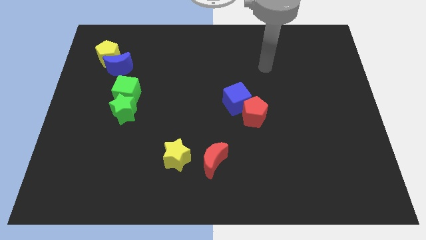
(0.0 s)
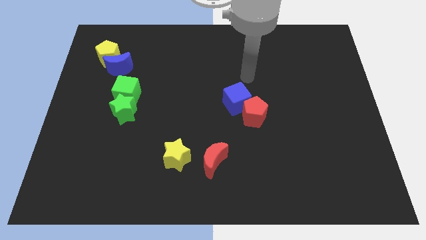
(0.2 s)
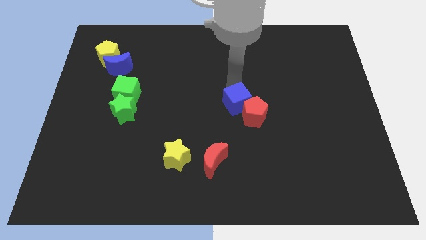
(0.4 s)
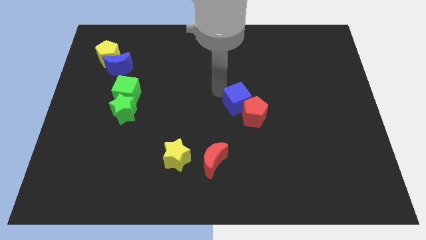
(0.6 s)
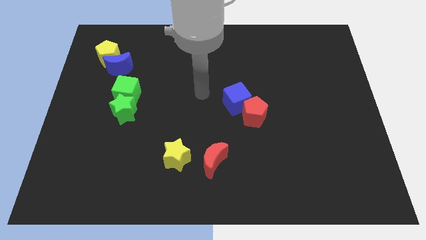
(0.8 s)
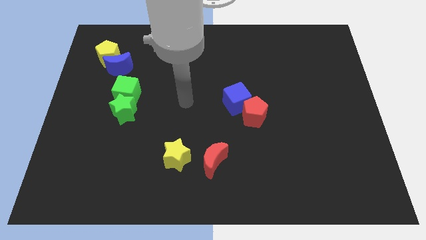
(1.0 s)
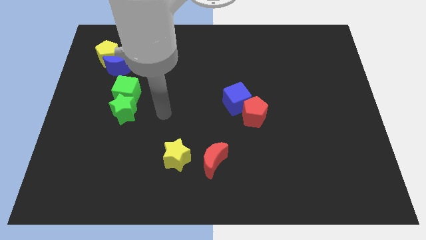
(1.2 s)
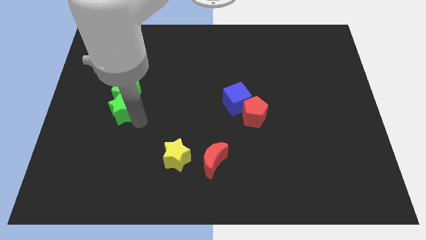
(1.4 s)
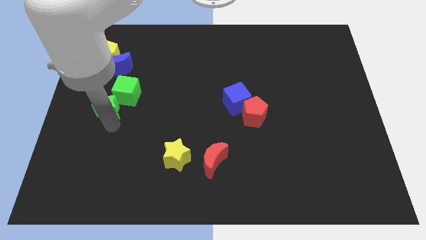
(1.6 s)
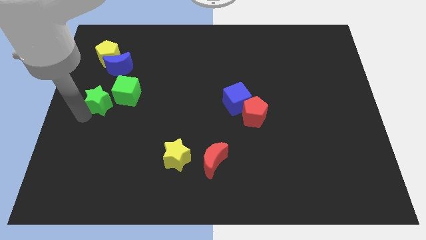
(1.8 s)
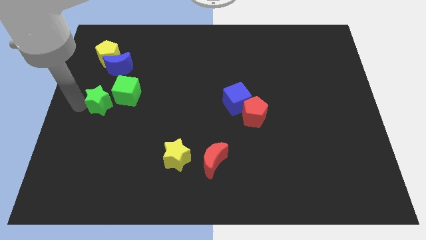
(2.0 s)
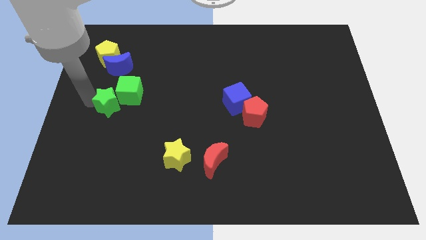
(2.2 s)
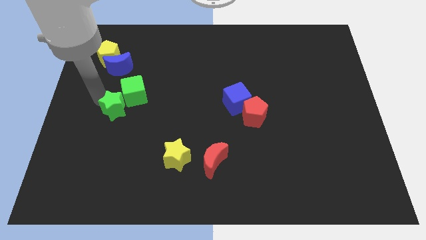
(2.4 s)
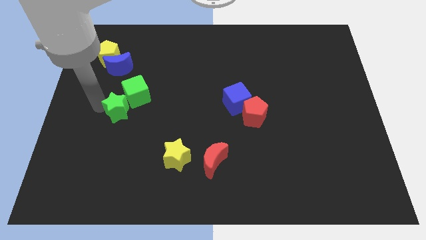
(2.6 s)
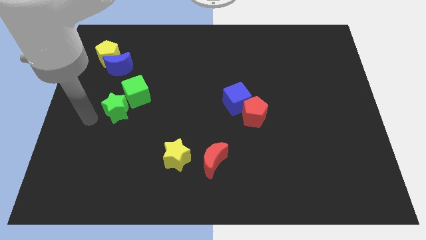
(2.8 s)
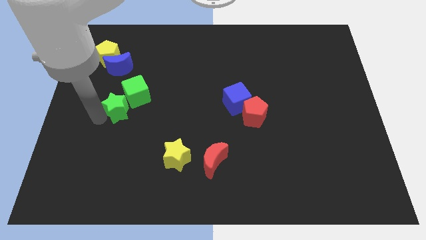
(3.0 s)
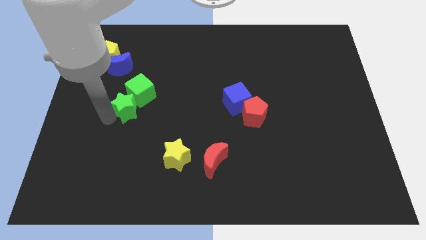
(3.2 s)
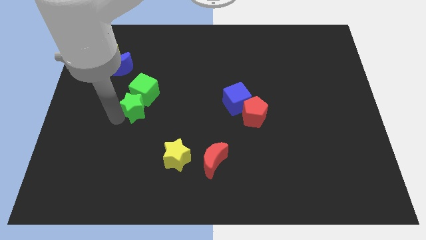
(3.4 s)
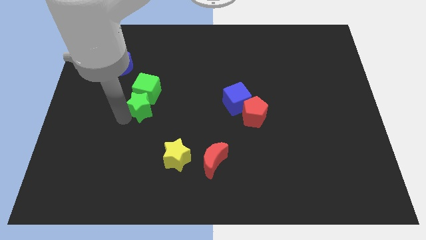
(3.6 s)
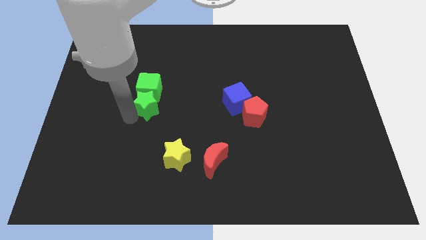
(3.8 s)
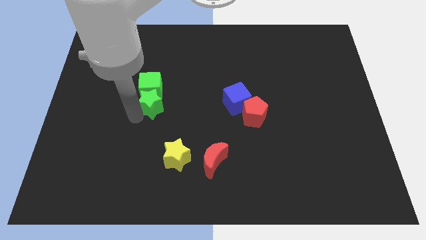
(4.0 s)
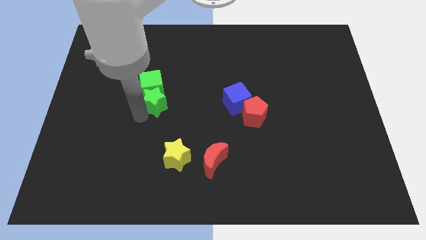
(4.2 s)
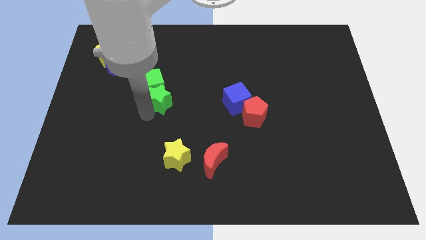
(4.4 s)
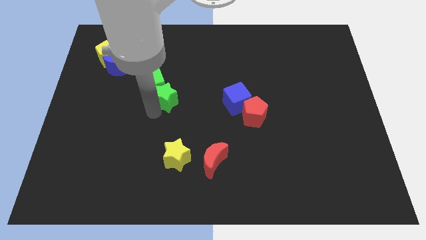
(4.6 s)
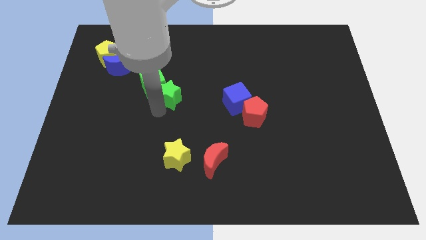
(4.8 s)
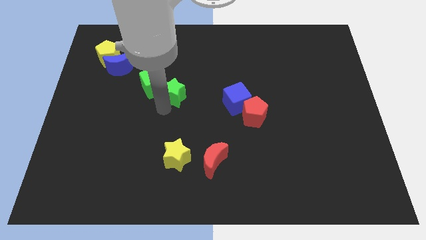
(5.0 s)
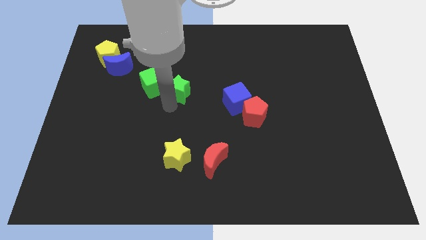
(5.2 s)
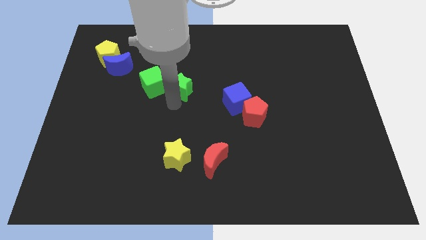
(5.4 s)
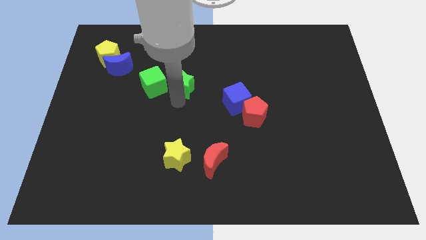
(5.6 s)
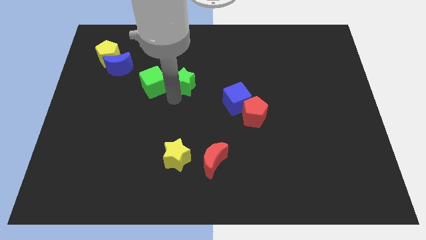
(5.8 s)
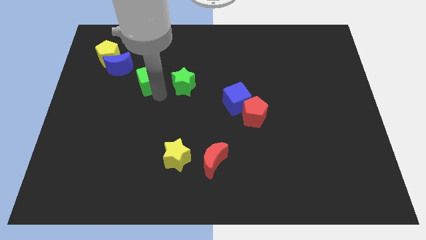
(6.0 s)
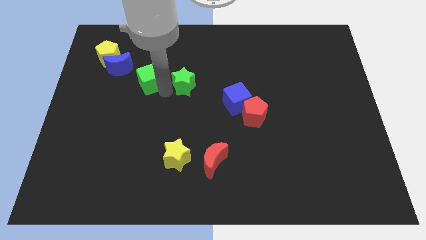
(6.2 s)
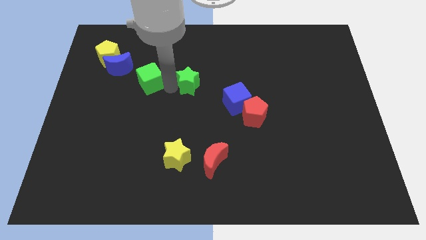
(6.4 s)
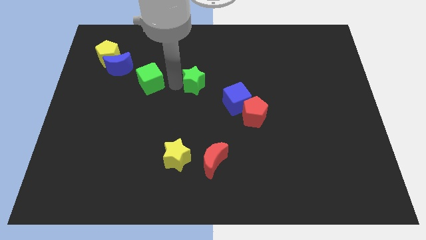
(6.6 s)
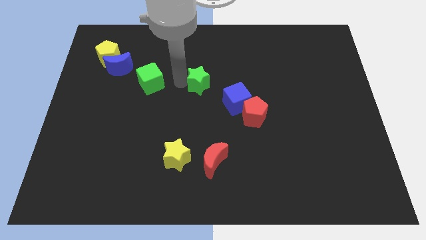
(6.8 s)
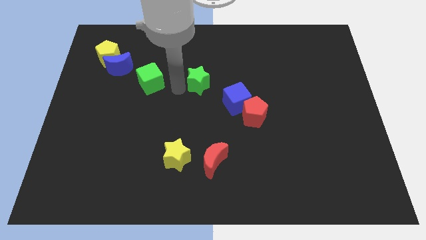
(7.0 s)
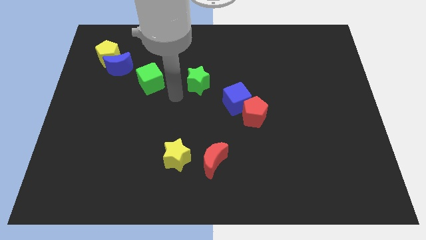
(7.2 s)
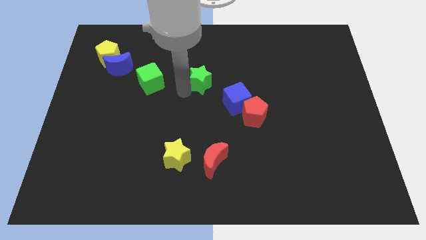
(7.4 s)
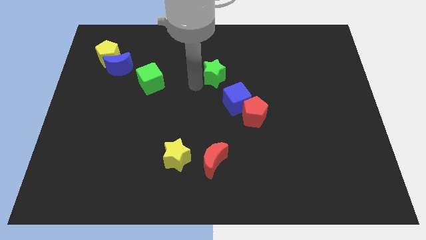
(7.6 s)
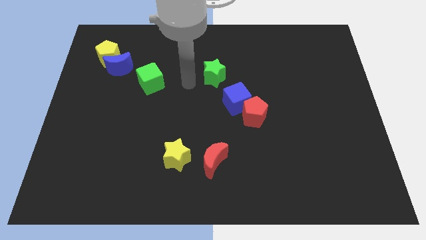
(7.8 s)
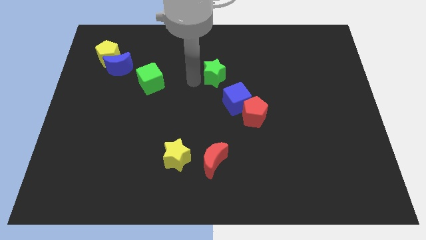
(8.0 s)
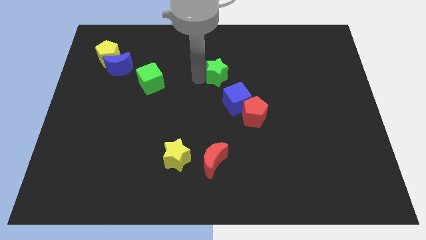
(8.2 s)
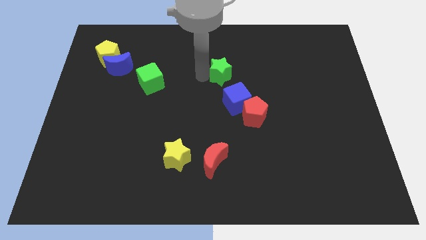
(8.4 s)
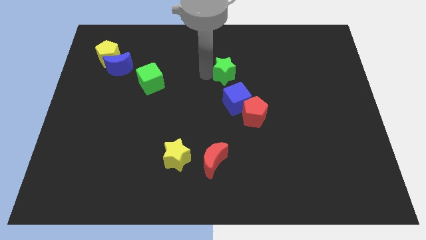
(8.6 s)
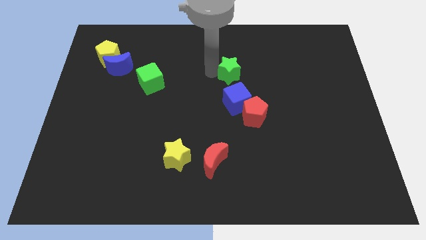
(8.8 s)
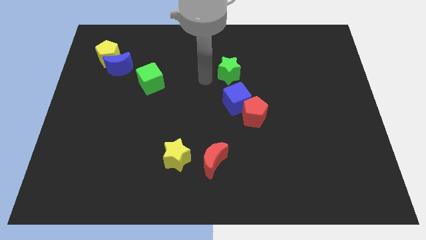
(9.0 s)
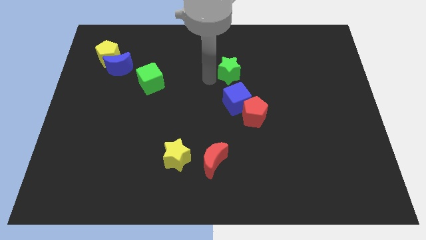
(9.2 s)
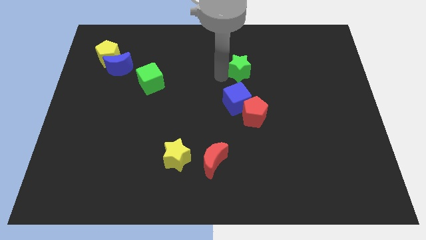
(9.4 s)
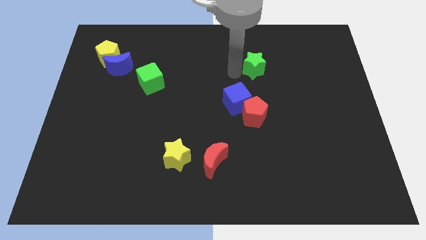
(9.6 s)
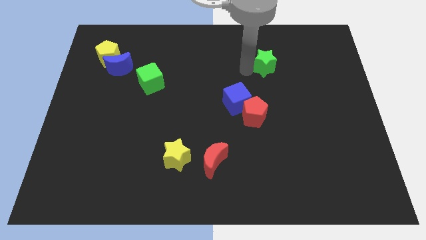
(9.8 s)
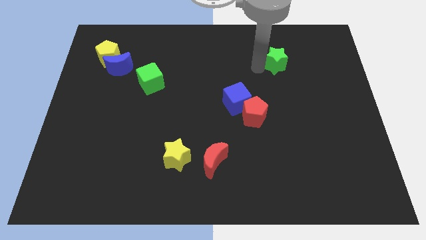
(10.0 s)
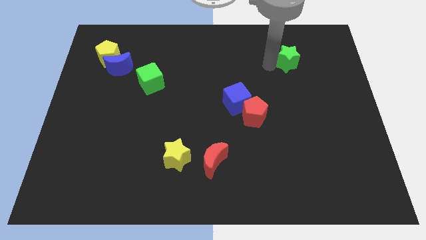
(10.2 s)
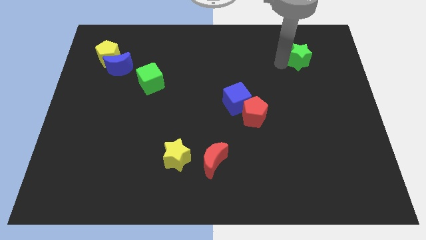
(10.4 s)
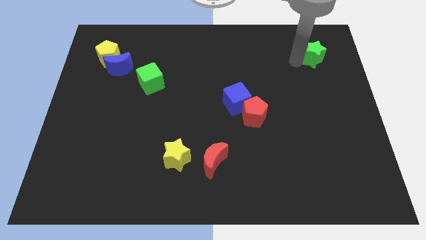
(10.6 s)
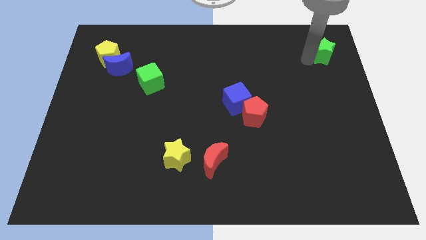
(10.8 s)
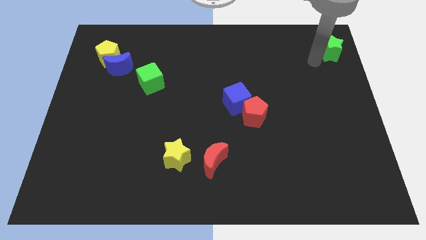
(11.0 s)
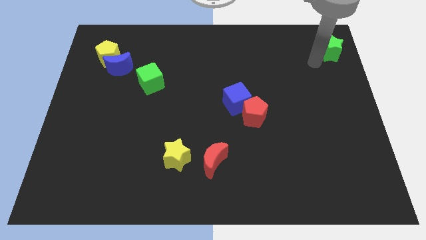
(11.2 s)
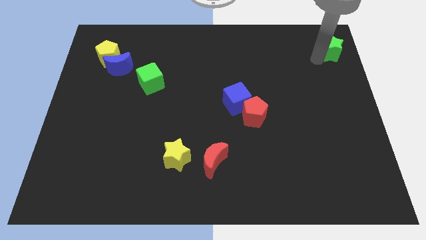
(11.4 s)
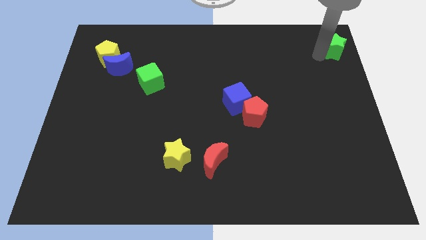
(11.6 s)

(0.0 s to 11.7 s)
push the green star to the upper right corner
